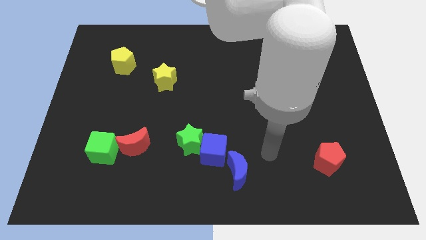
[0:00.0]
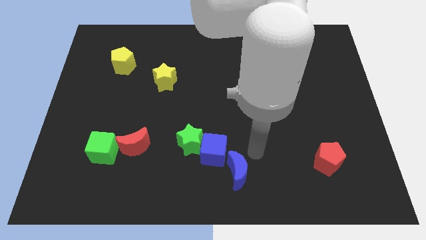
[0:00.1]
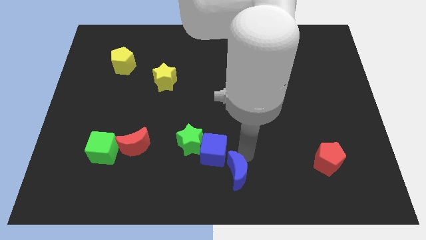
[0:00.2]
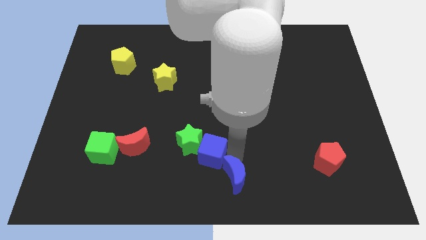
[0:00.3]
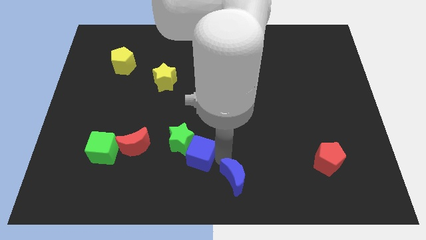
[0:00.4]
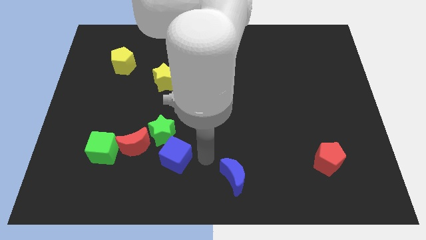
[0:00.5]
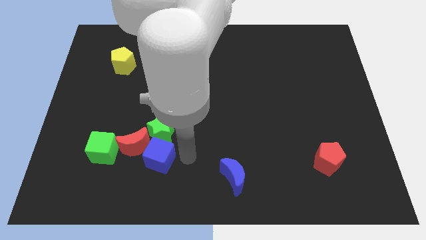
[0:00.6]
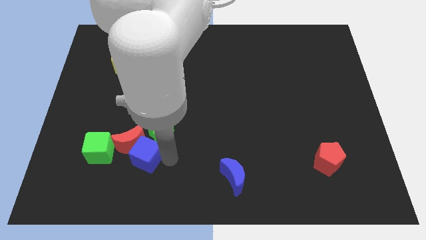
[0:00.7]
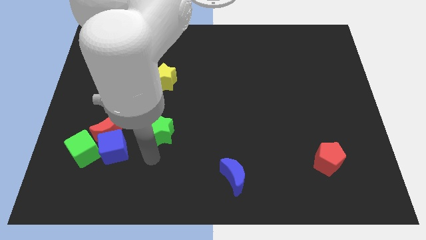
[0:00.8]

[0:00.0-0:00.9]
pull the green star apart from the blue cube

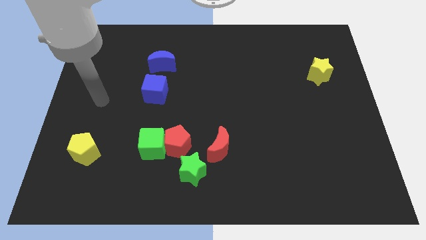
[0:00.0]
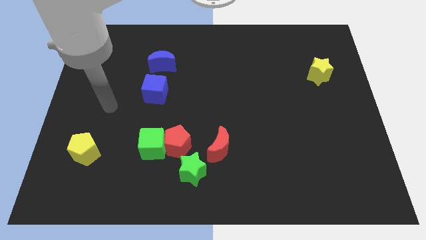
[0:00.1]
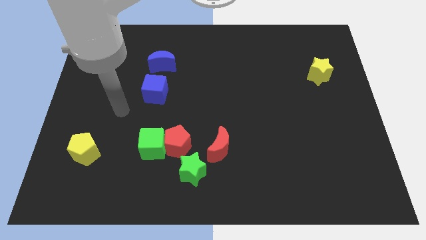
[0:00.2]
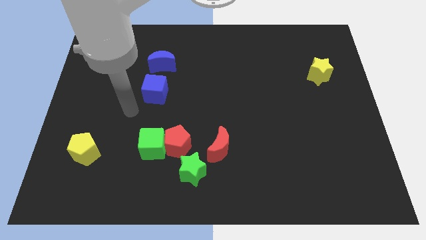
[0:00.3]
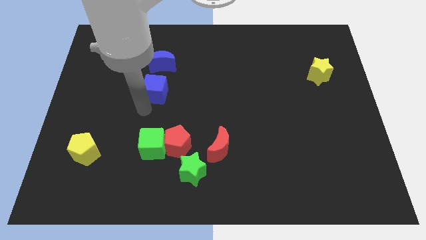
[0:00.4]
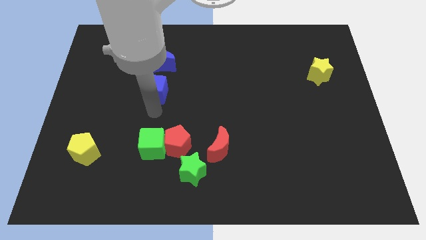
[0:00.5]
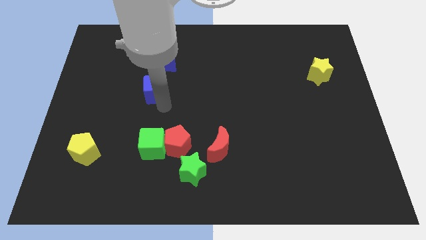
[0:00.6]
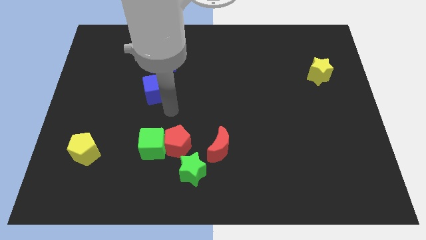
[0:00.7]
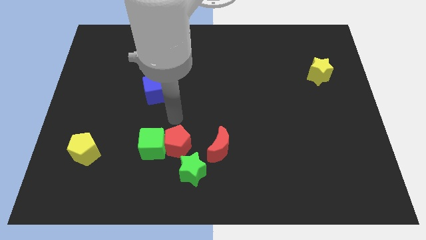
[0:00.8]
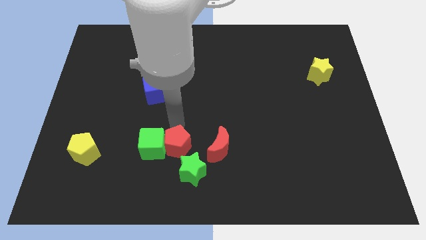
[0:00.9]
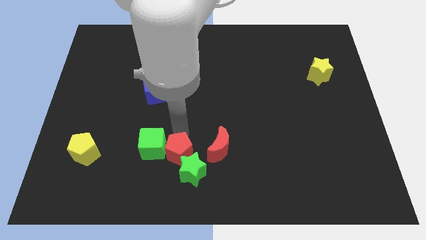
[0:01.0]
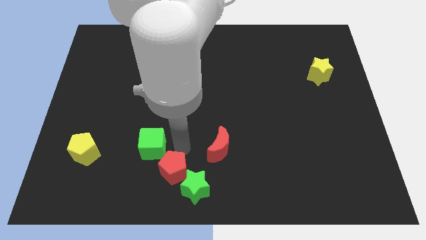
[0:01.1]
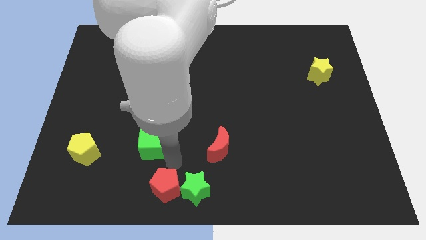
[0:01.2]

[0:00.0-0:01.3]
separate the green cube from the red pentagon

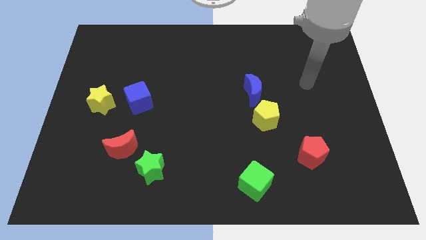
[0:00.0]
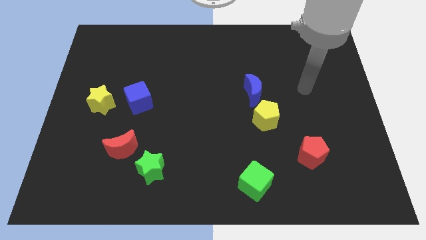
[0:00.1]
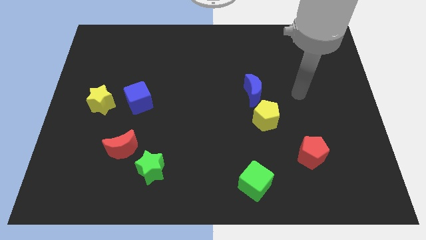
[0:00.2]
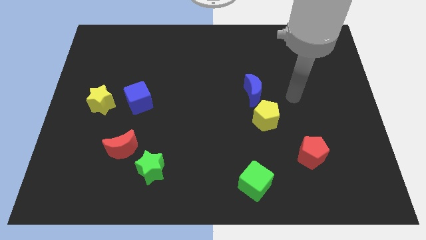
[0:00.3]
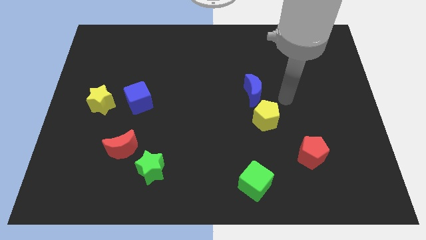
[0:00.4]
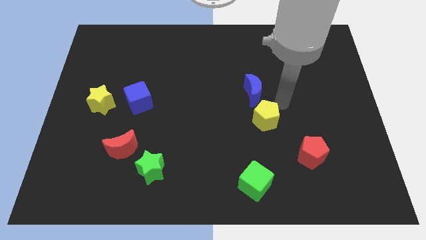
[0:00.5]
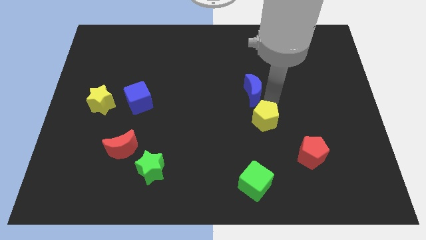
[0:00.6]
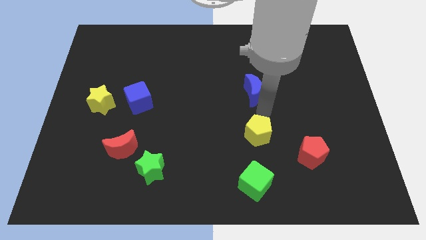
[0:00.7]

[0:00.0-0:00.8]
move the blue moon away from the yellow pentagon

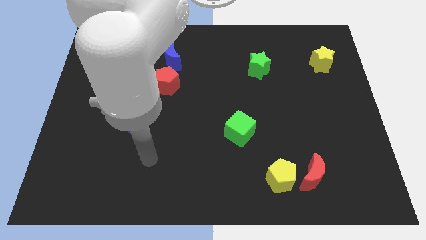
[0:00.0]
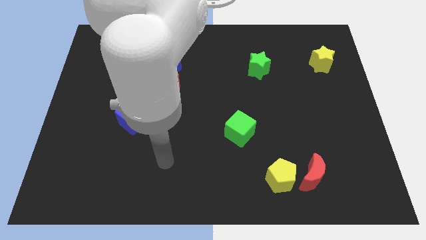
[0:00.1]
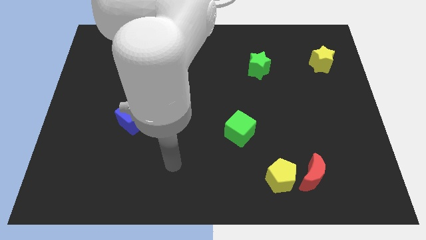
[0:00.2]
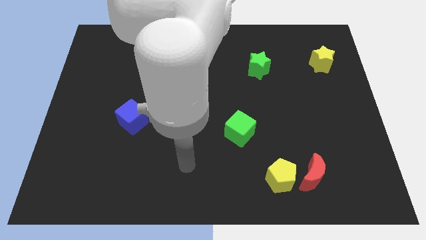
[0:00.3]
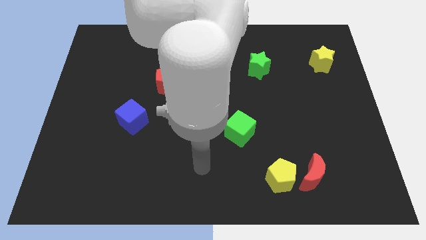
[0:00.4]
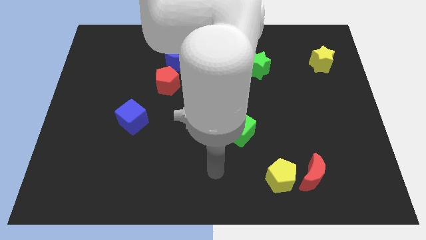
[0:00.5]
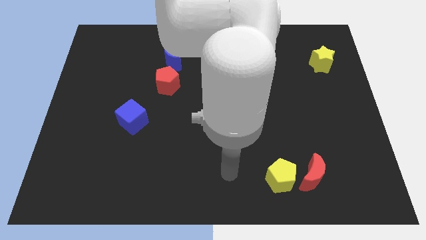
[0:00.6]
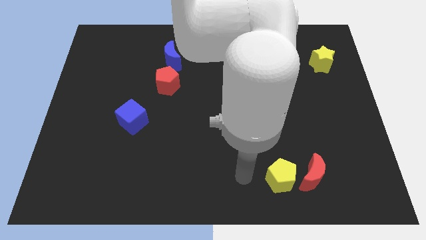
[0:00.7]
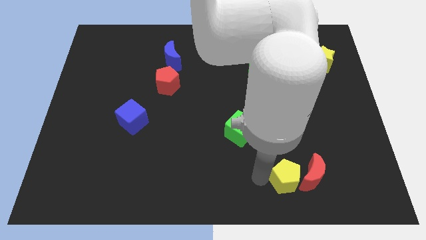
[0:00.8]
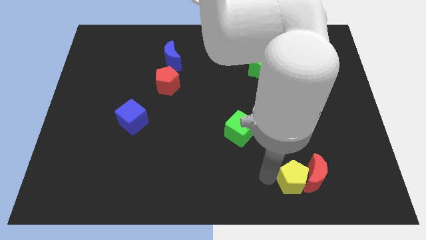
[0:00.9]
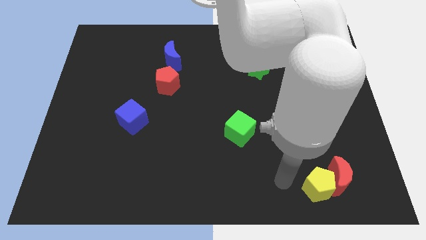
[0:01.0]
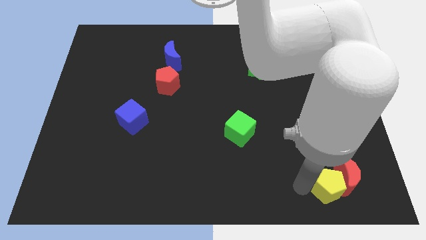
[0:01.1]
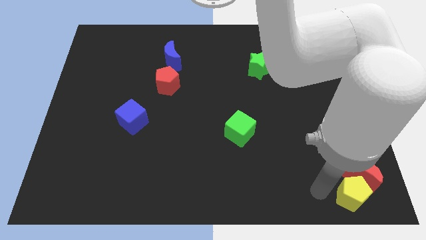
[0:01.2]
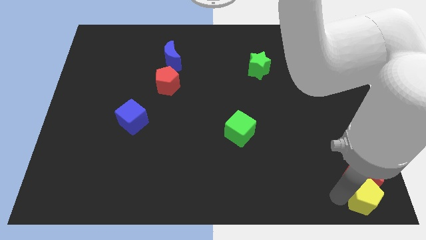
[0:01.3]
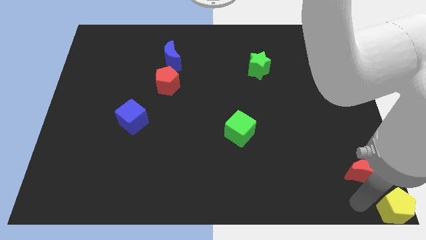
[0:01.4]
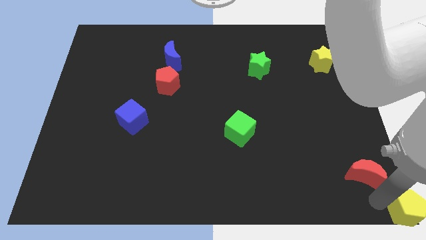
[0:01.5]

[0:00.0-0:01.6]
move the red moon away from the yellow pentagon

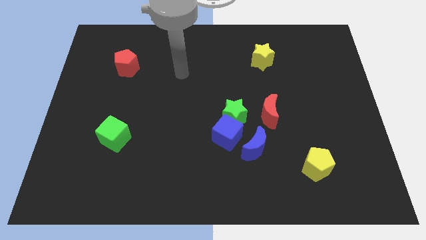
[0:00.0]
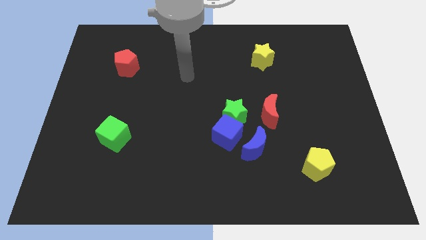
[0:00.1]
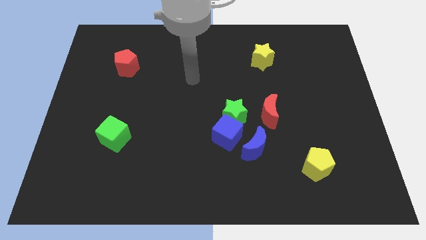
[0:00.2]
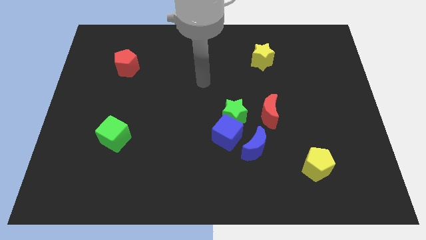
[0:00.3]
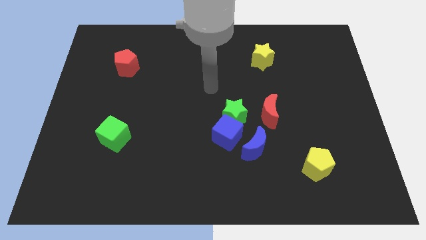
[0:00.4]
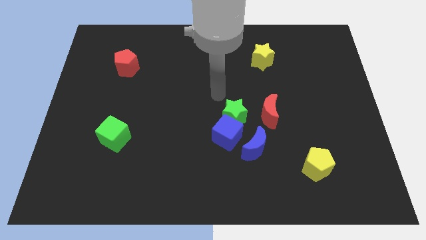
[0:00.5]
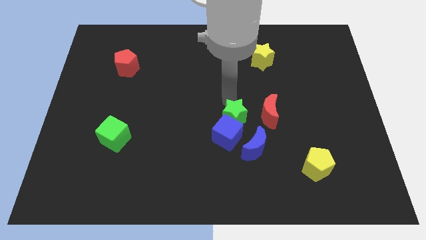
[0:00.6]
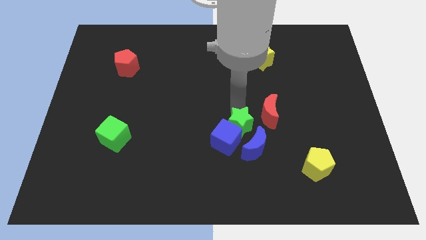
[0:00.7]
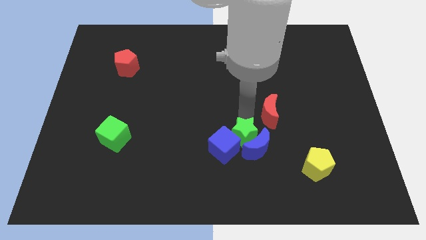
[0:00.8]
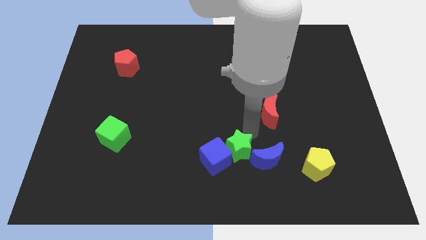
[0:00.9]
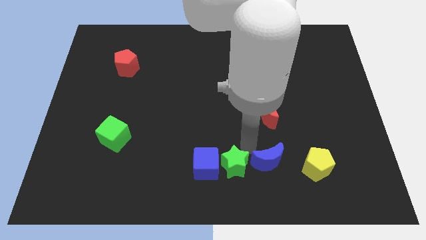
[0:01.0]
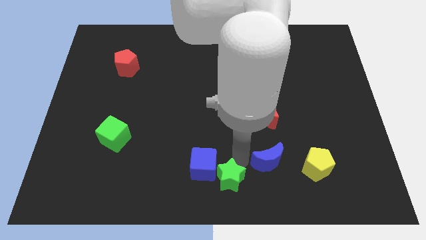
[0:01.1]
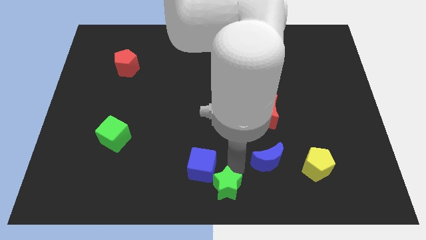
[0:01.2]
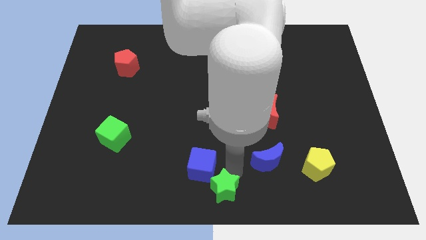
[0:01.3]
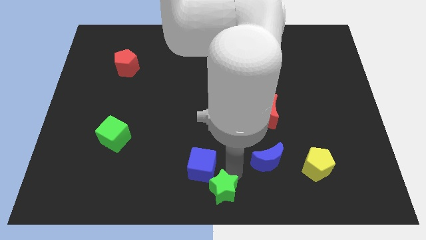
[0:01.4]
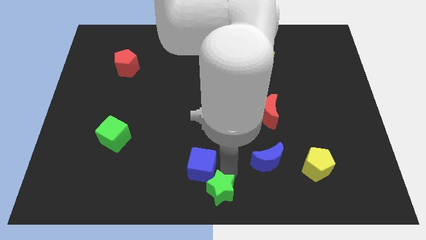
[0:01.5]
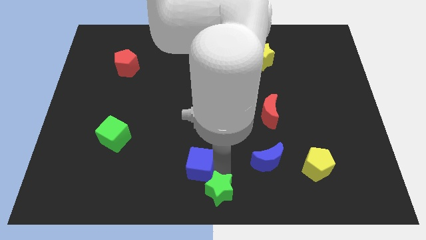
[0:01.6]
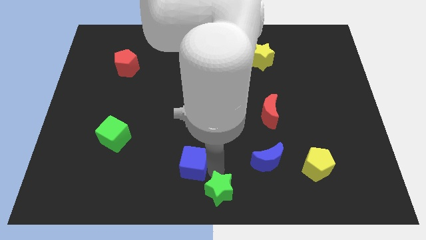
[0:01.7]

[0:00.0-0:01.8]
pull the blue cube apart from the green star and blue moon

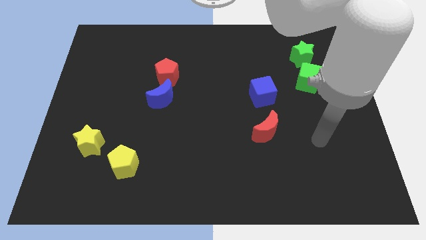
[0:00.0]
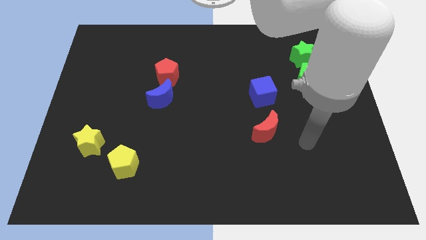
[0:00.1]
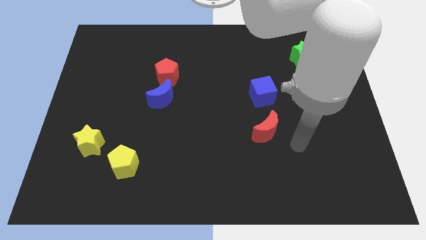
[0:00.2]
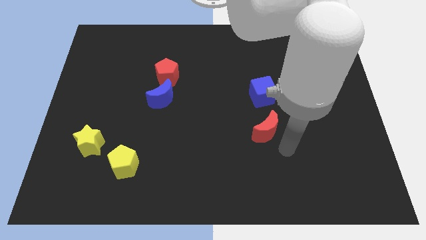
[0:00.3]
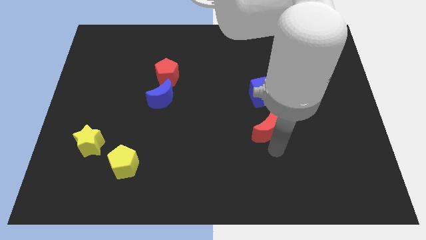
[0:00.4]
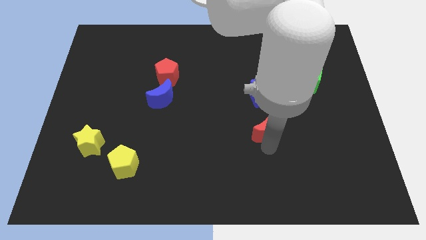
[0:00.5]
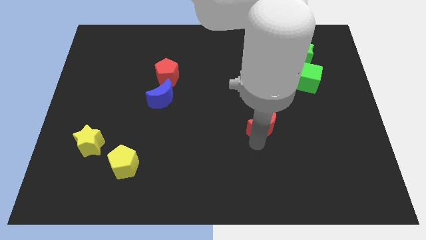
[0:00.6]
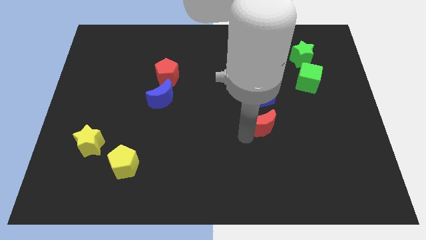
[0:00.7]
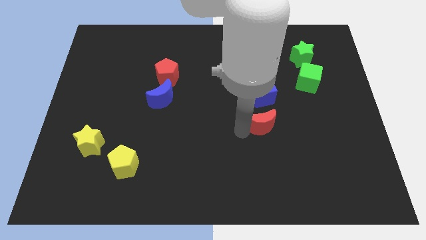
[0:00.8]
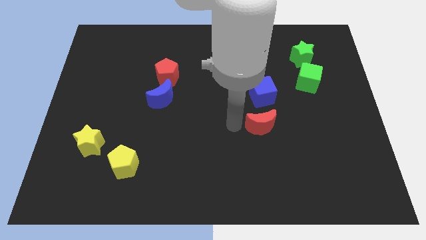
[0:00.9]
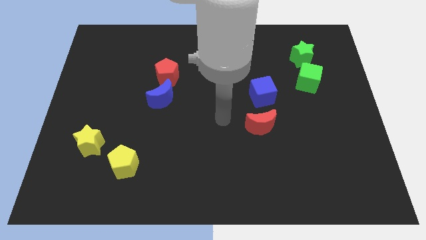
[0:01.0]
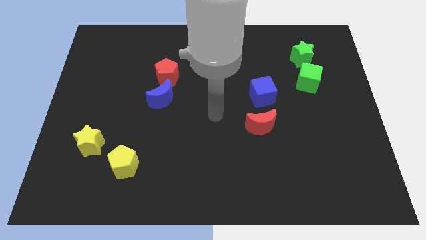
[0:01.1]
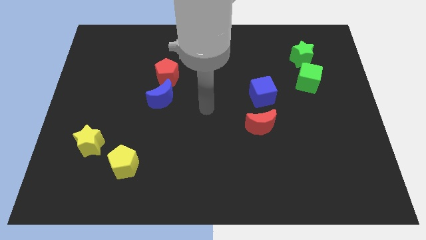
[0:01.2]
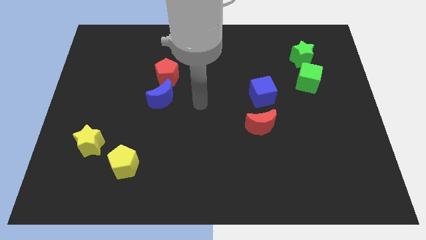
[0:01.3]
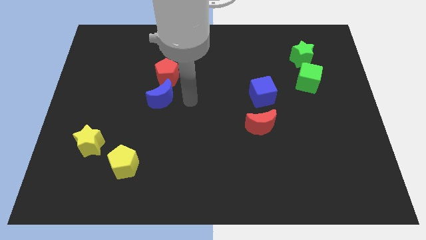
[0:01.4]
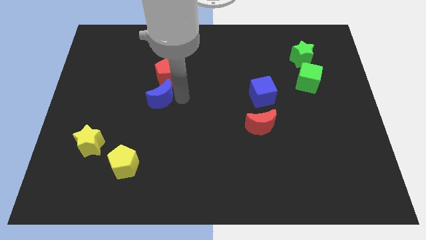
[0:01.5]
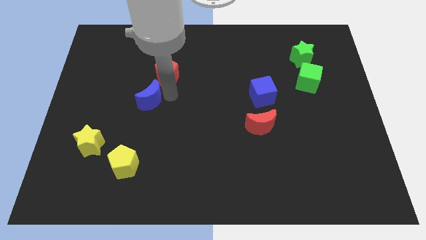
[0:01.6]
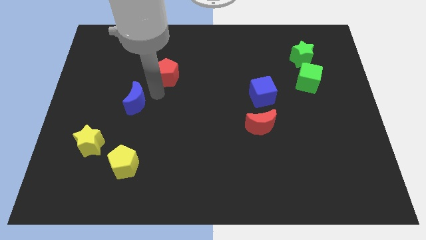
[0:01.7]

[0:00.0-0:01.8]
separate the red pentagon from the blue moon

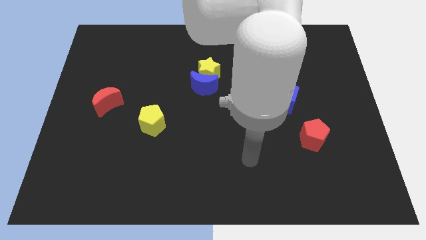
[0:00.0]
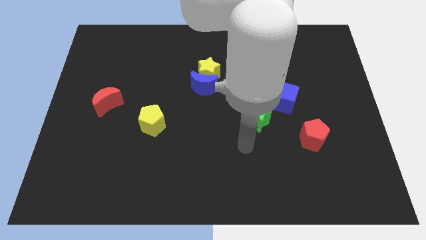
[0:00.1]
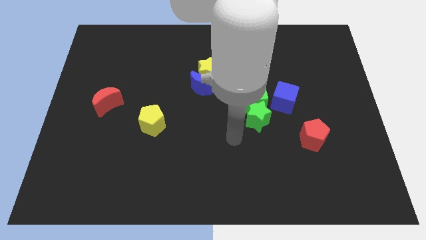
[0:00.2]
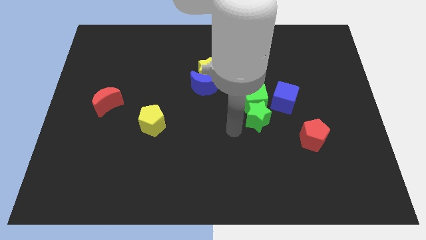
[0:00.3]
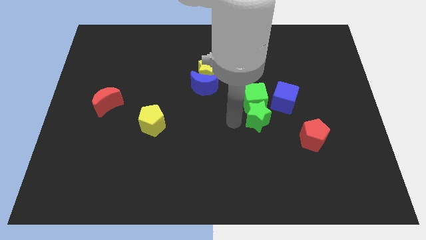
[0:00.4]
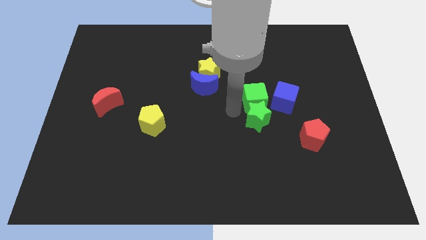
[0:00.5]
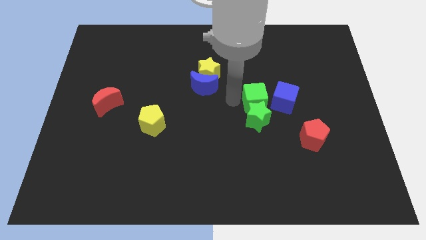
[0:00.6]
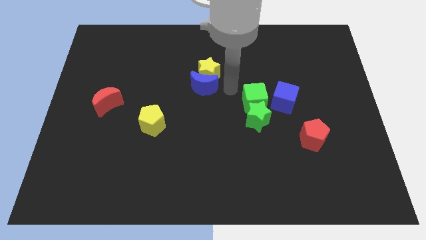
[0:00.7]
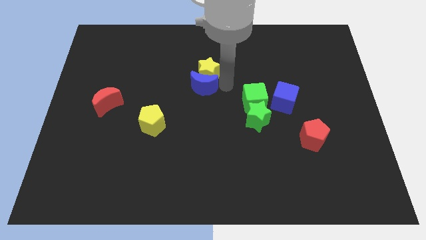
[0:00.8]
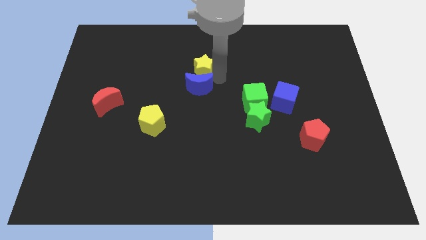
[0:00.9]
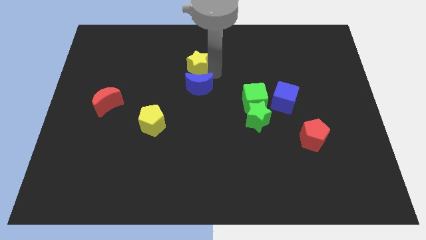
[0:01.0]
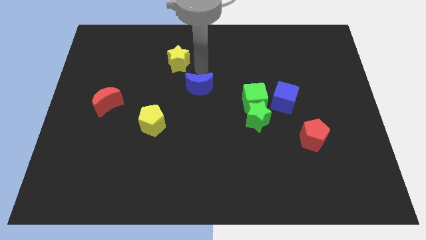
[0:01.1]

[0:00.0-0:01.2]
separate the blue moon from the yellow star

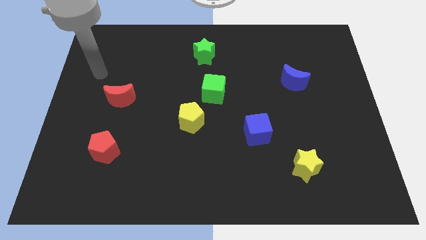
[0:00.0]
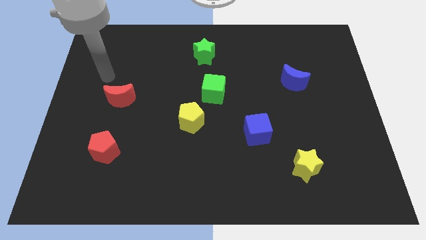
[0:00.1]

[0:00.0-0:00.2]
pull the green cube apart from the yellow pentagon
